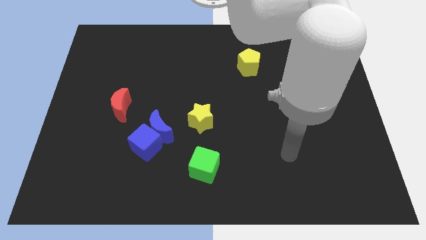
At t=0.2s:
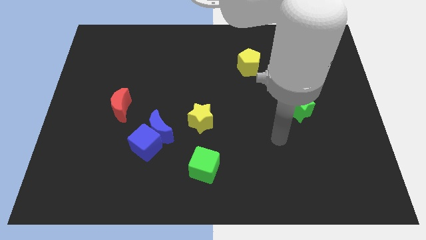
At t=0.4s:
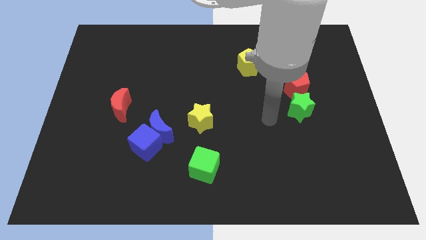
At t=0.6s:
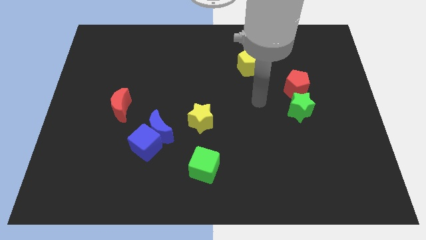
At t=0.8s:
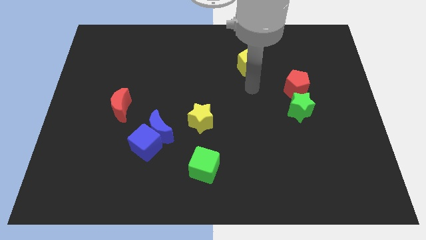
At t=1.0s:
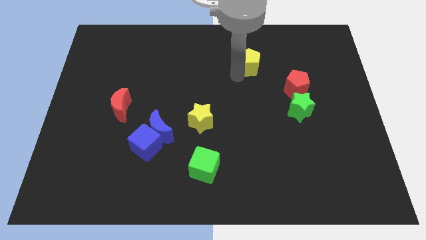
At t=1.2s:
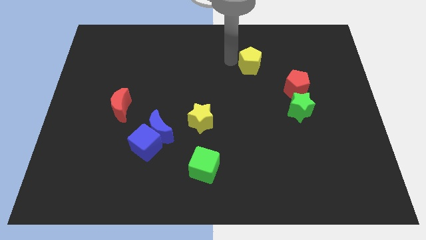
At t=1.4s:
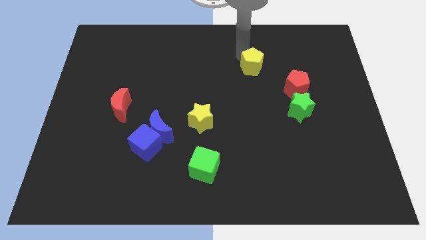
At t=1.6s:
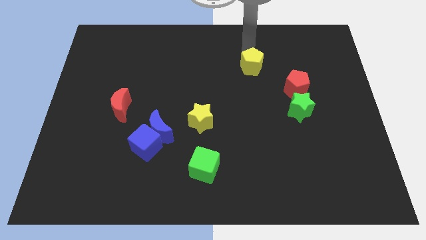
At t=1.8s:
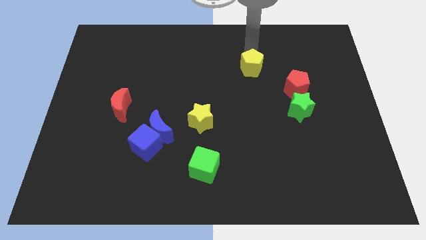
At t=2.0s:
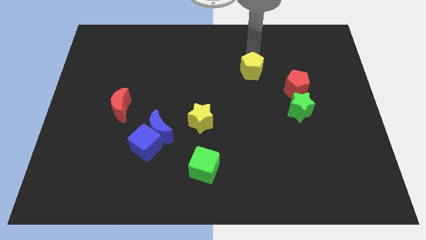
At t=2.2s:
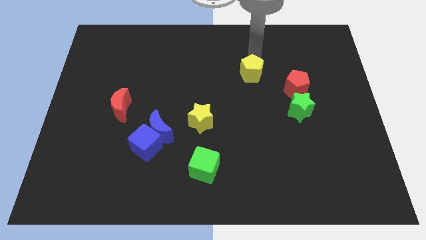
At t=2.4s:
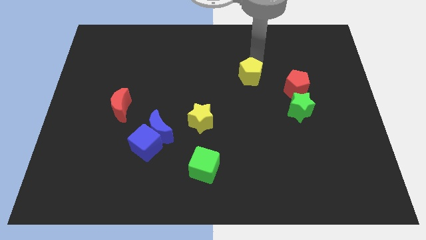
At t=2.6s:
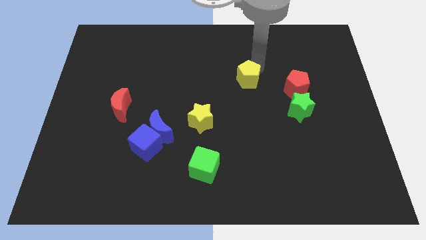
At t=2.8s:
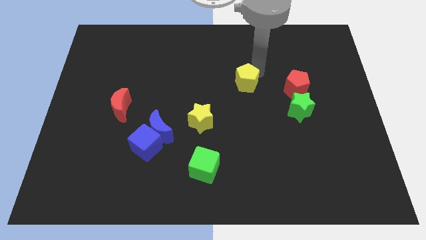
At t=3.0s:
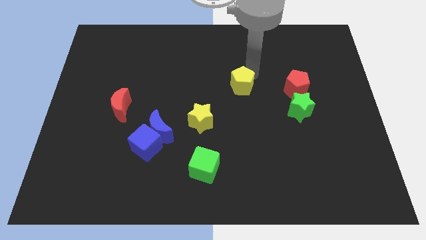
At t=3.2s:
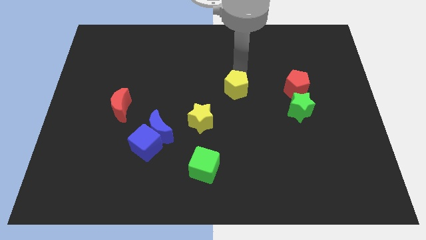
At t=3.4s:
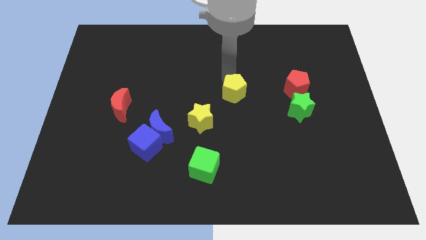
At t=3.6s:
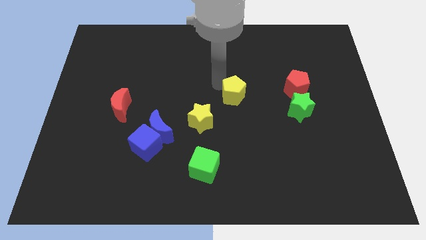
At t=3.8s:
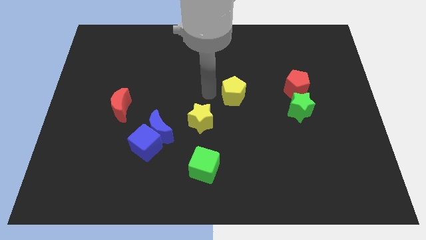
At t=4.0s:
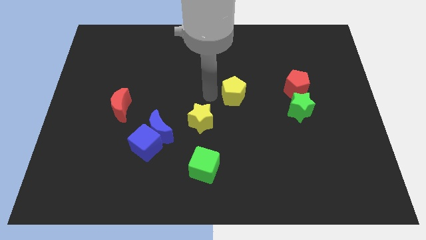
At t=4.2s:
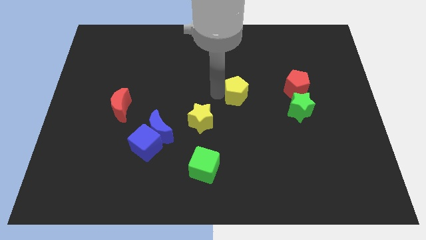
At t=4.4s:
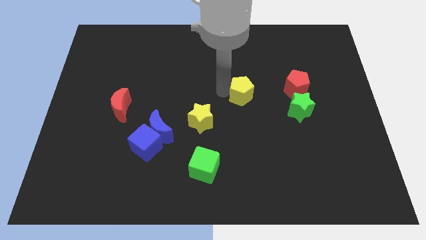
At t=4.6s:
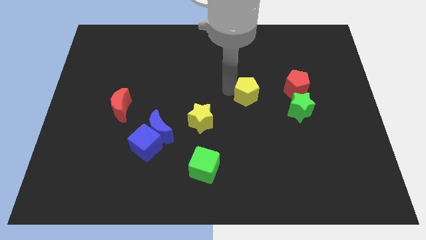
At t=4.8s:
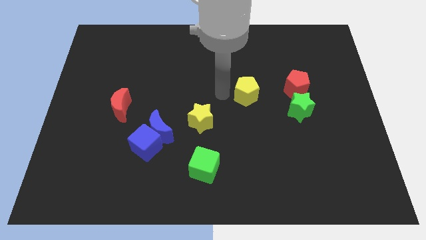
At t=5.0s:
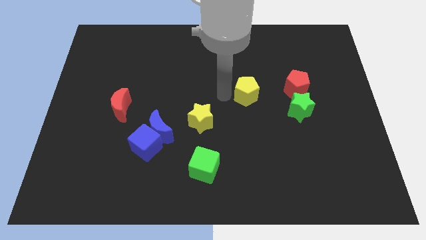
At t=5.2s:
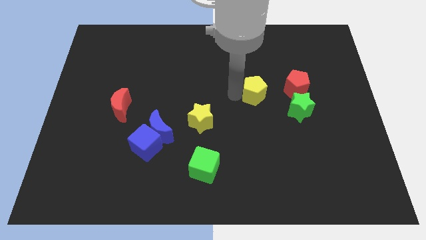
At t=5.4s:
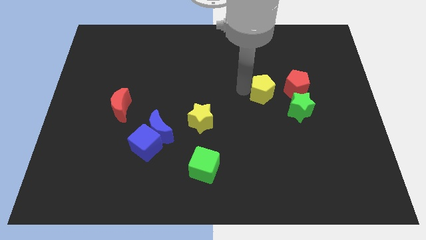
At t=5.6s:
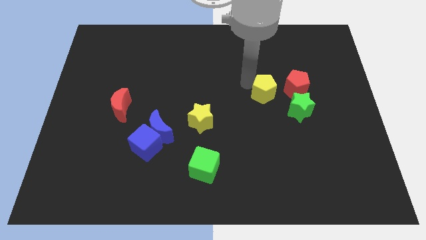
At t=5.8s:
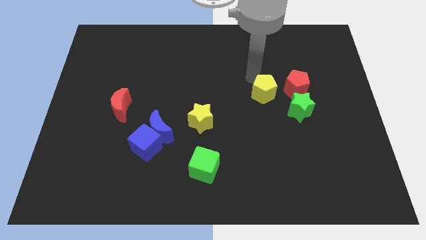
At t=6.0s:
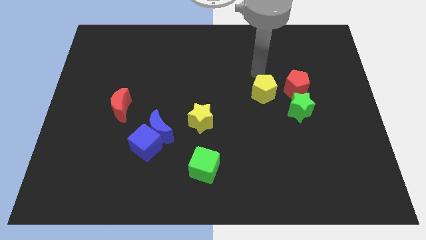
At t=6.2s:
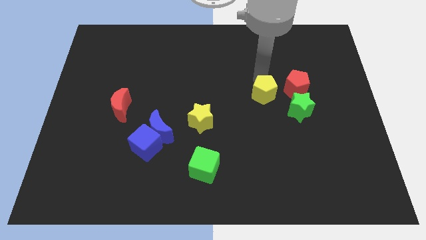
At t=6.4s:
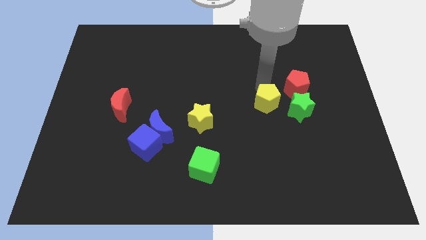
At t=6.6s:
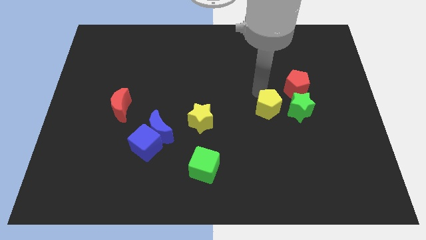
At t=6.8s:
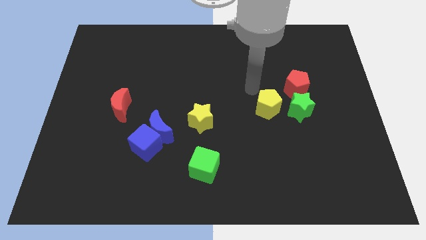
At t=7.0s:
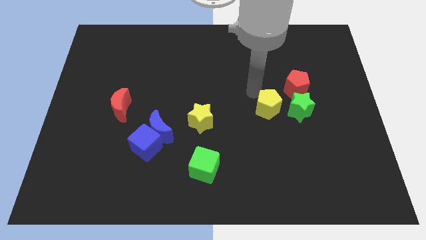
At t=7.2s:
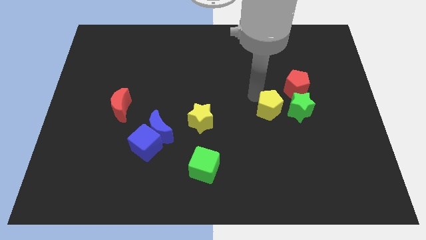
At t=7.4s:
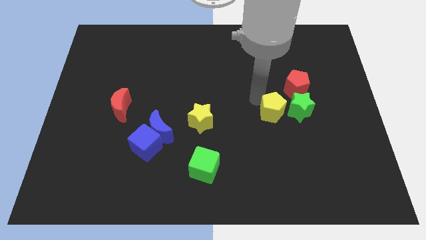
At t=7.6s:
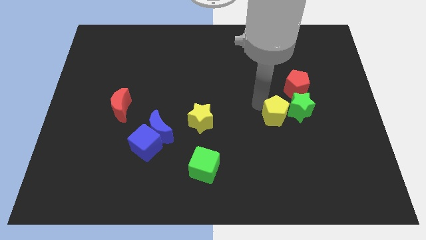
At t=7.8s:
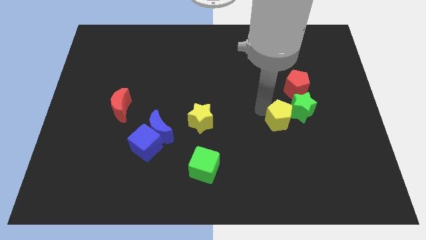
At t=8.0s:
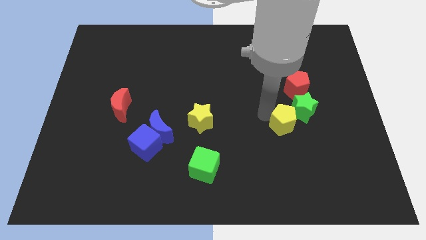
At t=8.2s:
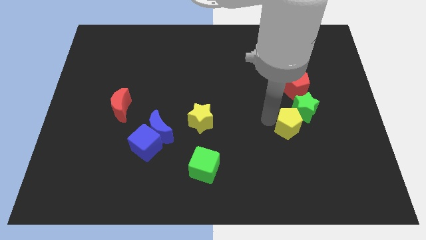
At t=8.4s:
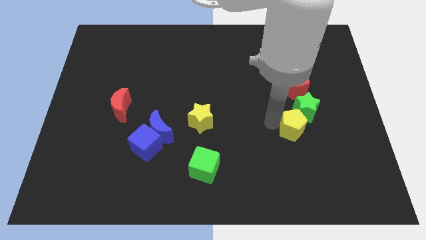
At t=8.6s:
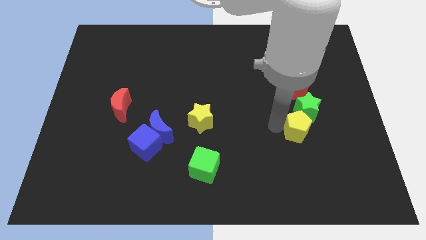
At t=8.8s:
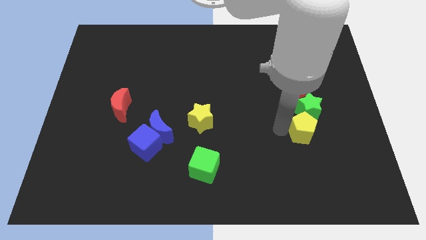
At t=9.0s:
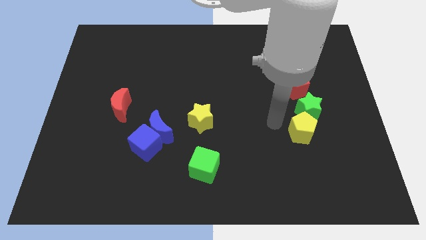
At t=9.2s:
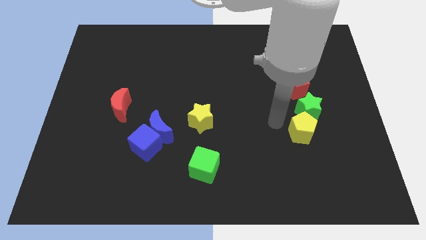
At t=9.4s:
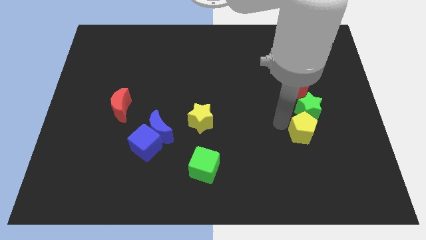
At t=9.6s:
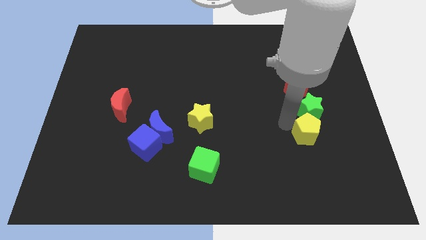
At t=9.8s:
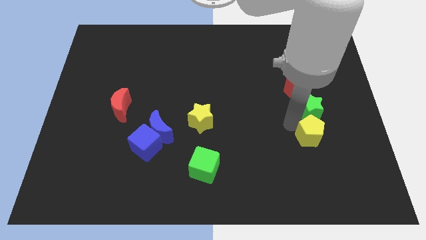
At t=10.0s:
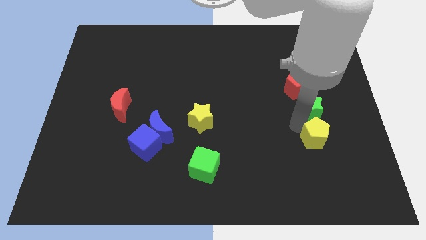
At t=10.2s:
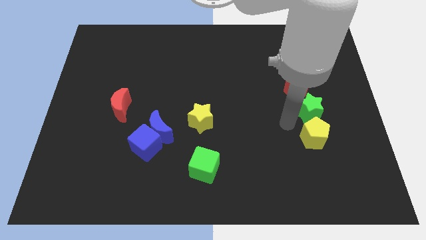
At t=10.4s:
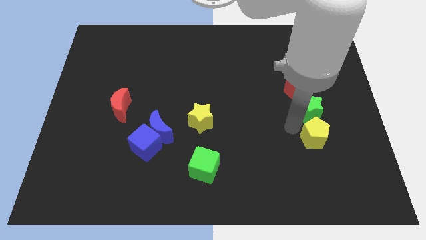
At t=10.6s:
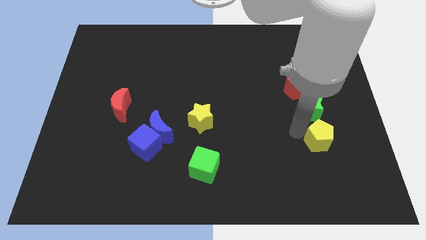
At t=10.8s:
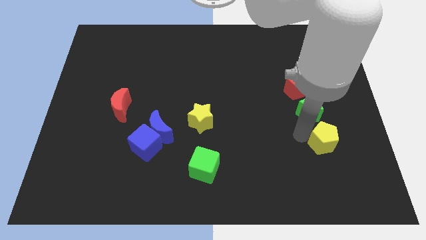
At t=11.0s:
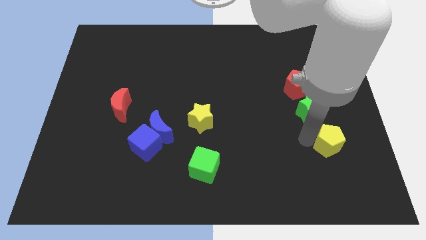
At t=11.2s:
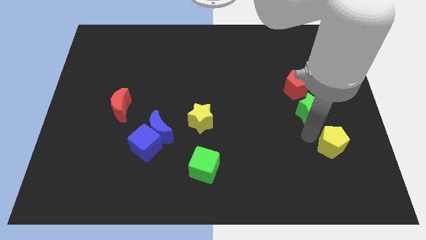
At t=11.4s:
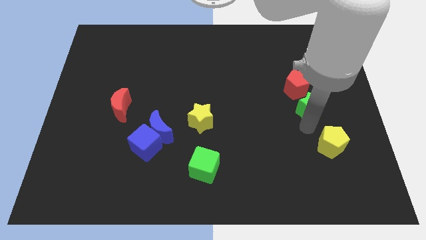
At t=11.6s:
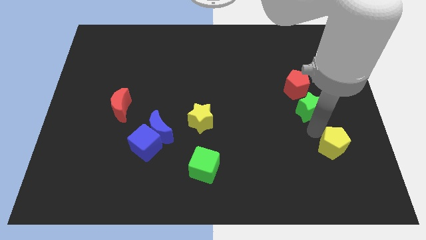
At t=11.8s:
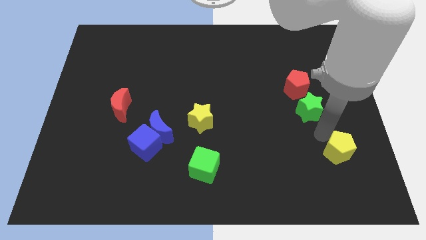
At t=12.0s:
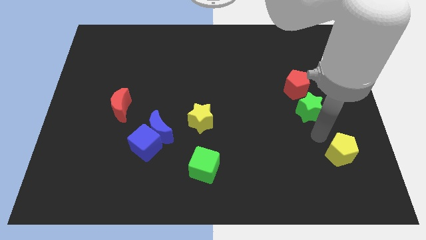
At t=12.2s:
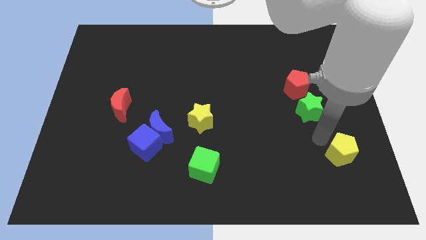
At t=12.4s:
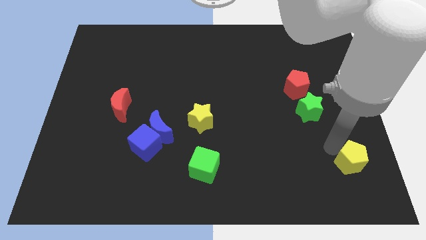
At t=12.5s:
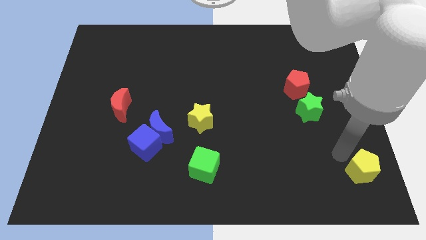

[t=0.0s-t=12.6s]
push the yellow pentagon to the lower right corner
